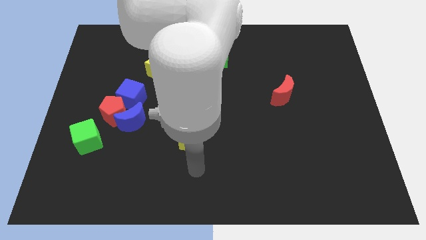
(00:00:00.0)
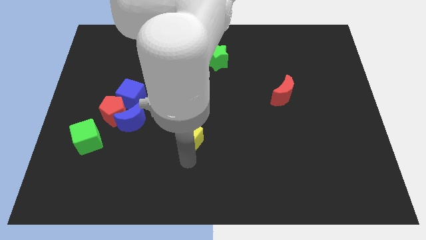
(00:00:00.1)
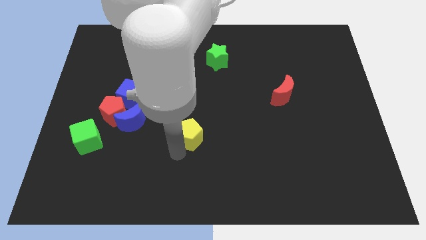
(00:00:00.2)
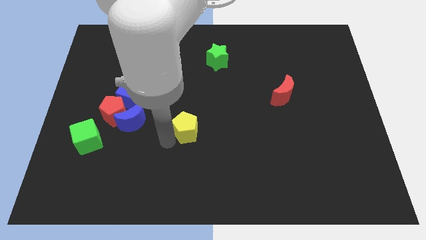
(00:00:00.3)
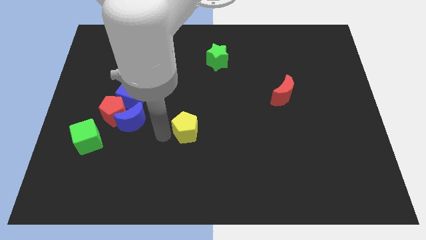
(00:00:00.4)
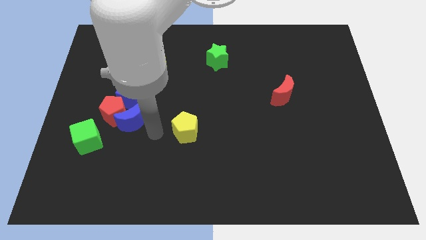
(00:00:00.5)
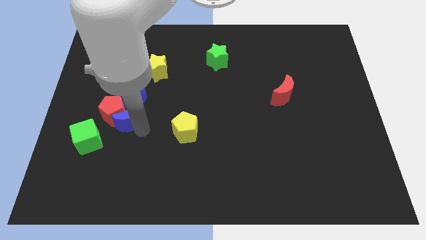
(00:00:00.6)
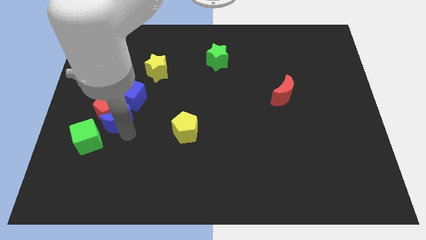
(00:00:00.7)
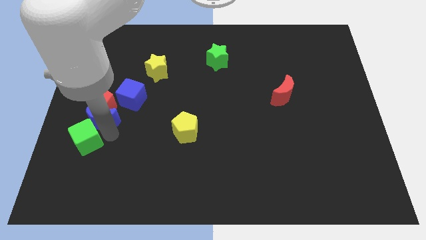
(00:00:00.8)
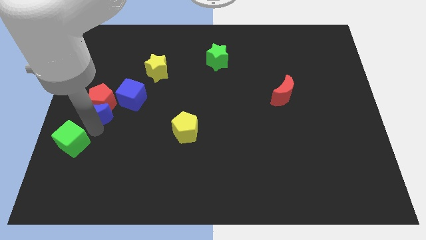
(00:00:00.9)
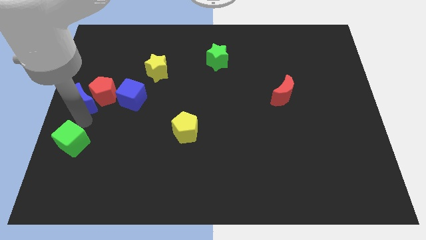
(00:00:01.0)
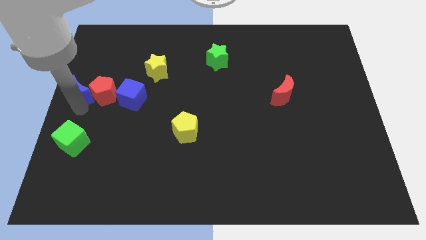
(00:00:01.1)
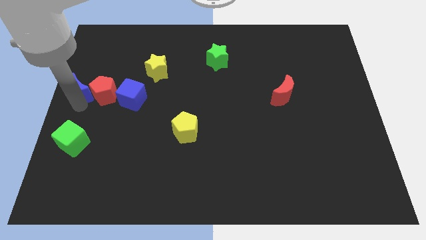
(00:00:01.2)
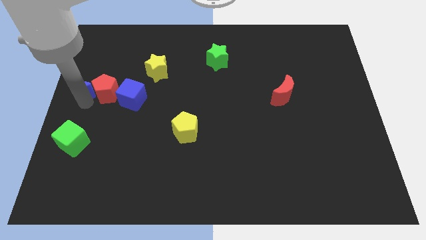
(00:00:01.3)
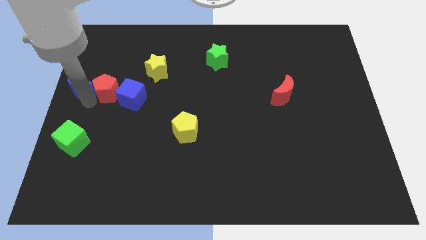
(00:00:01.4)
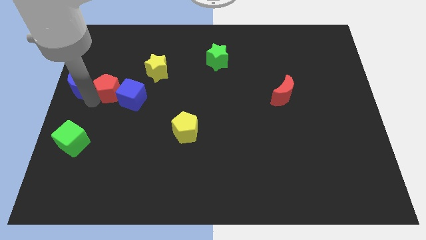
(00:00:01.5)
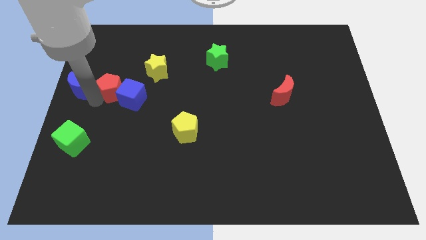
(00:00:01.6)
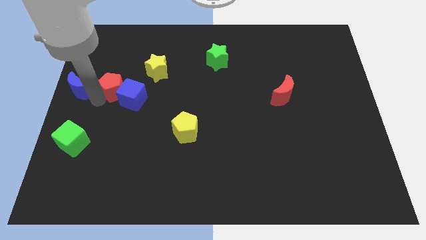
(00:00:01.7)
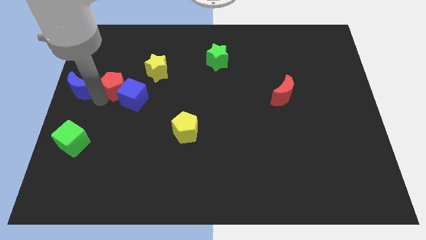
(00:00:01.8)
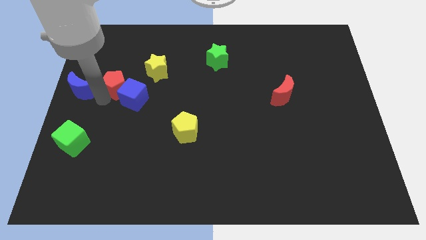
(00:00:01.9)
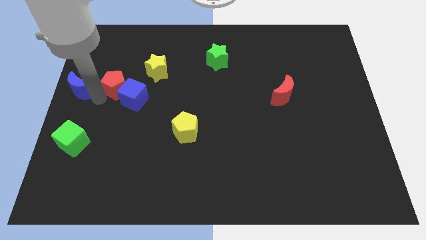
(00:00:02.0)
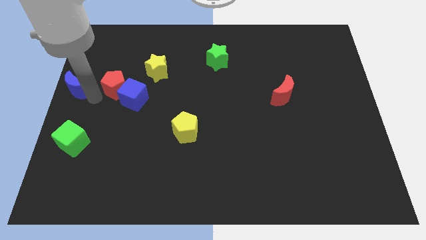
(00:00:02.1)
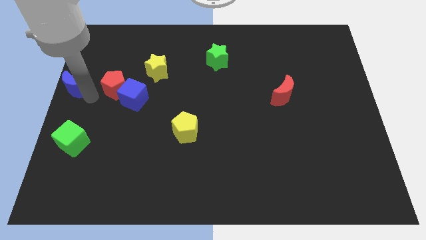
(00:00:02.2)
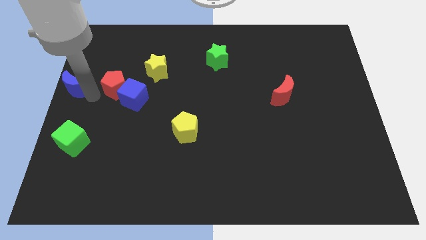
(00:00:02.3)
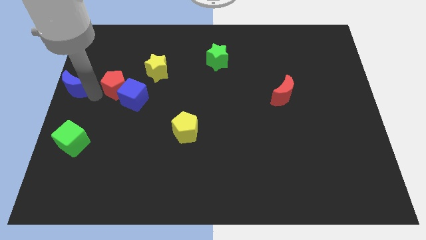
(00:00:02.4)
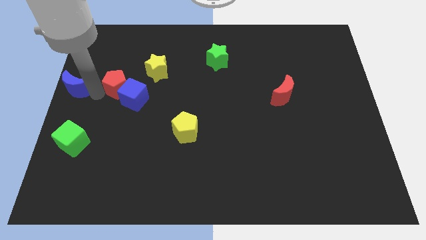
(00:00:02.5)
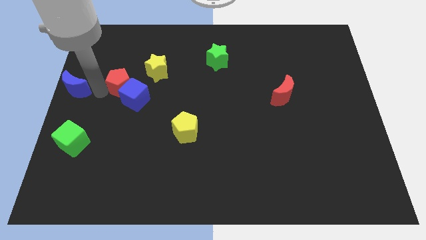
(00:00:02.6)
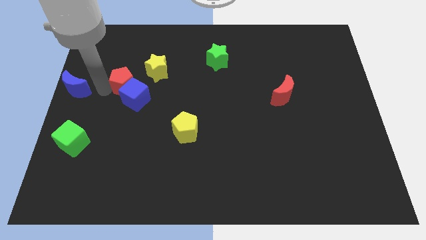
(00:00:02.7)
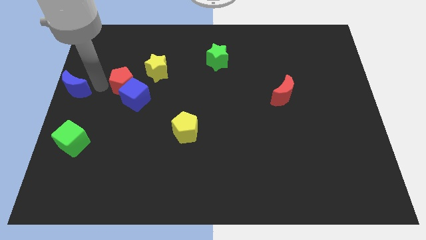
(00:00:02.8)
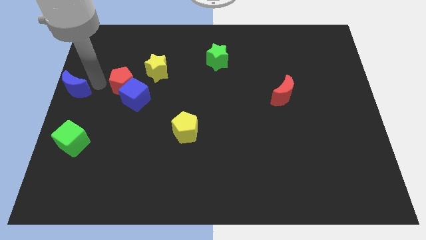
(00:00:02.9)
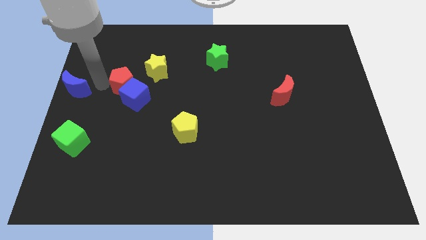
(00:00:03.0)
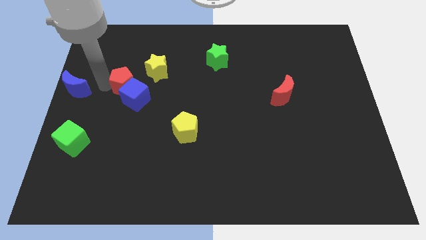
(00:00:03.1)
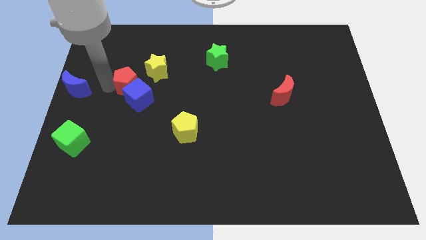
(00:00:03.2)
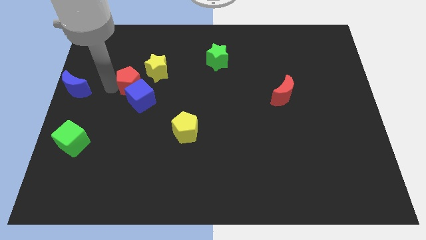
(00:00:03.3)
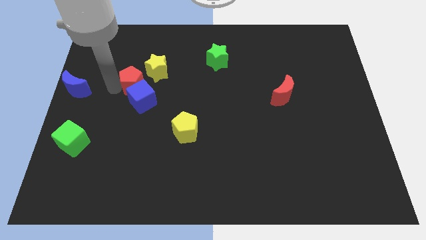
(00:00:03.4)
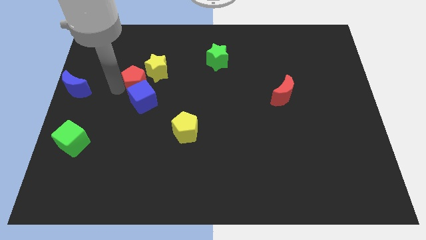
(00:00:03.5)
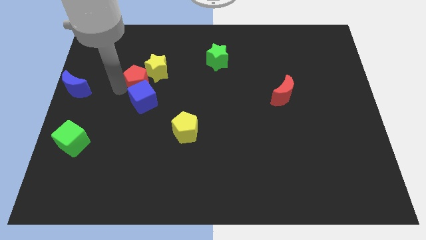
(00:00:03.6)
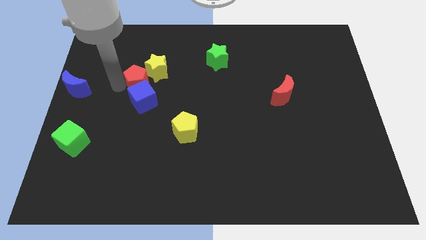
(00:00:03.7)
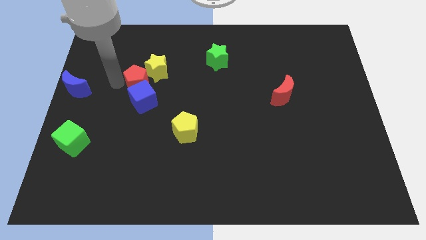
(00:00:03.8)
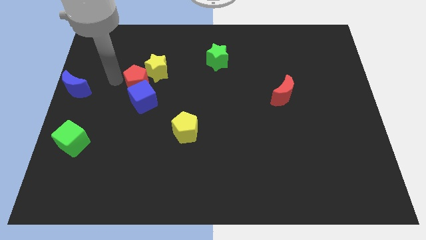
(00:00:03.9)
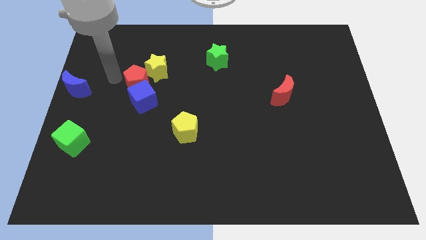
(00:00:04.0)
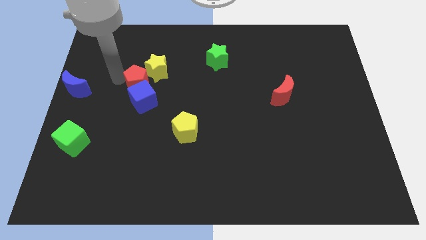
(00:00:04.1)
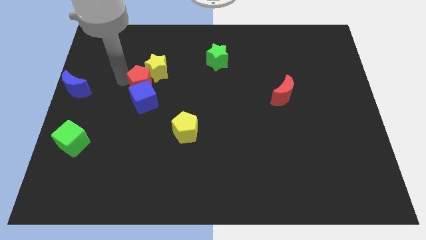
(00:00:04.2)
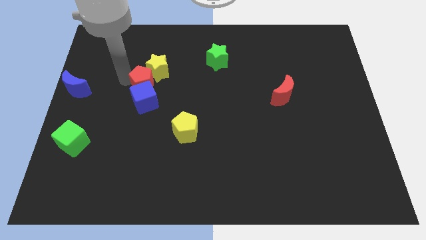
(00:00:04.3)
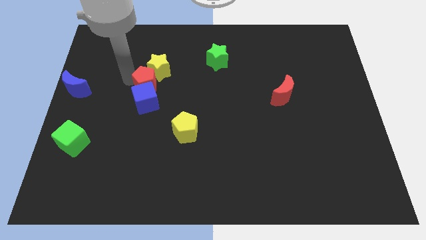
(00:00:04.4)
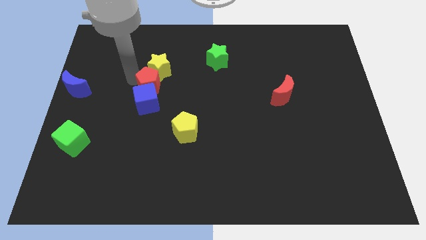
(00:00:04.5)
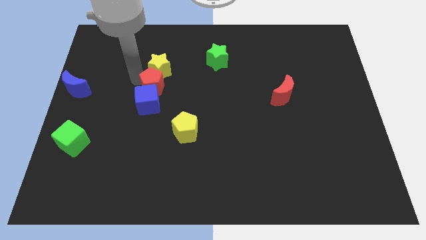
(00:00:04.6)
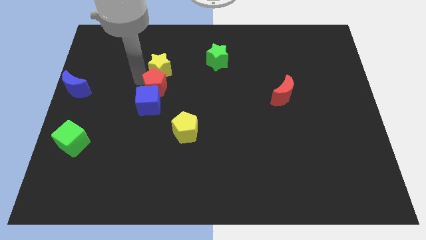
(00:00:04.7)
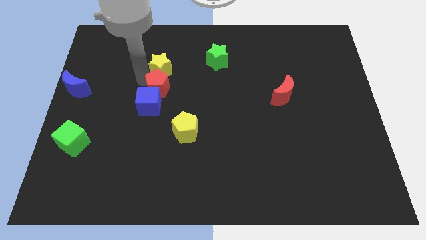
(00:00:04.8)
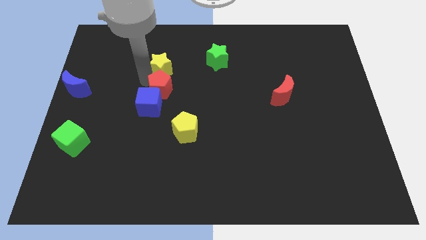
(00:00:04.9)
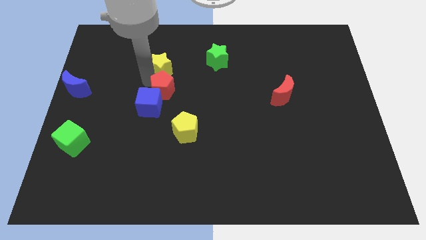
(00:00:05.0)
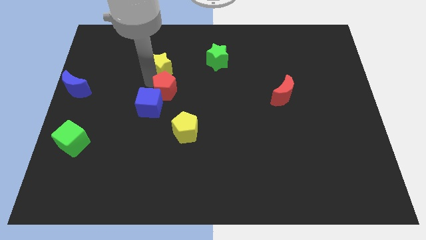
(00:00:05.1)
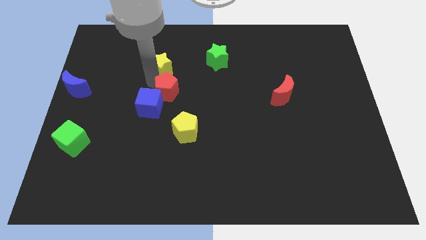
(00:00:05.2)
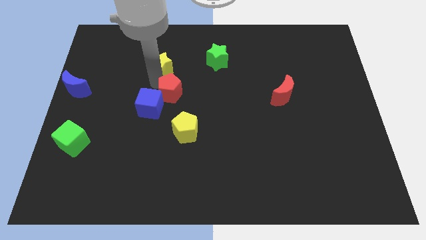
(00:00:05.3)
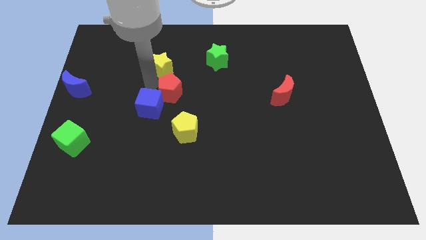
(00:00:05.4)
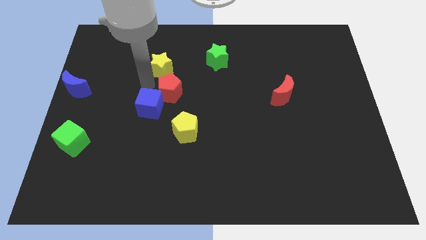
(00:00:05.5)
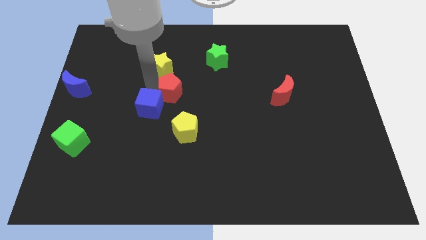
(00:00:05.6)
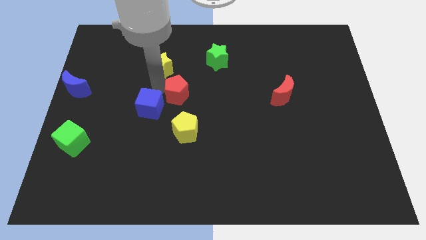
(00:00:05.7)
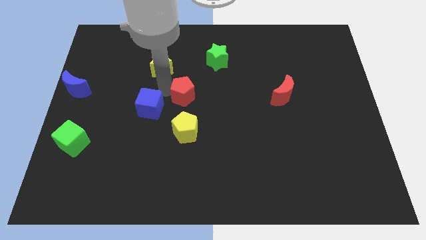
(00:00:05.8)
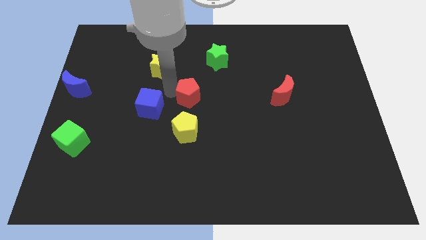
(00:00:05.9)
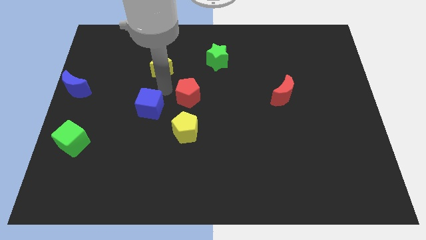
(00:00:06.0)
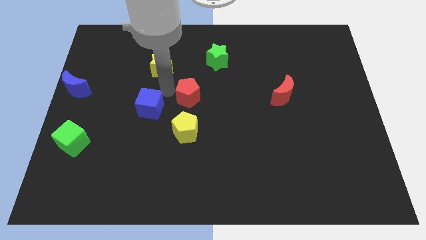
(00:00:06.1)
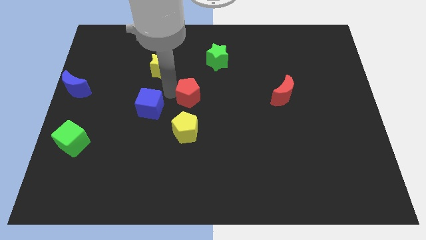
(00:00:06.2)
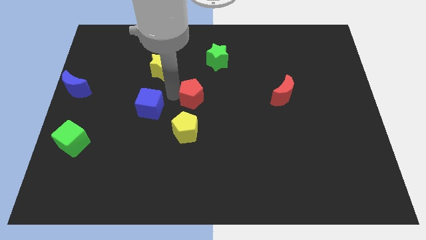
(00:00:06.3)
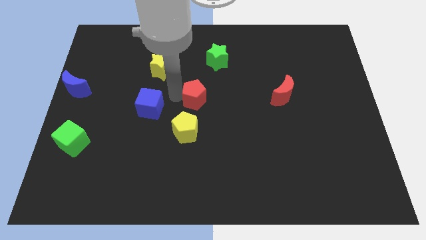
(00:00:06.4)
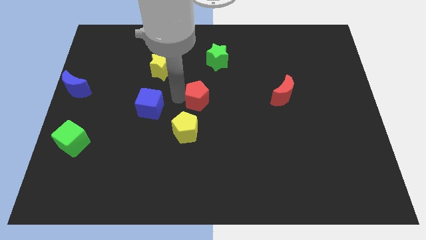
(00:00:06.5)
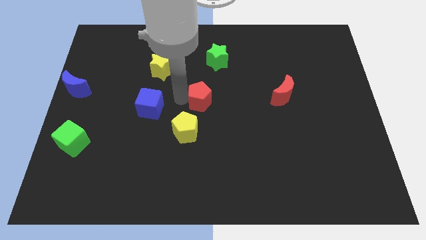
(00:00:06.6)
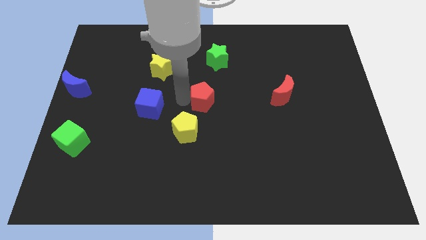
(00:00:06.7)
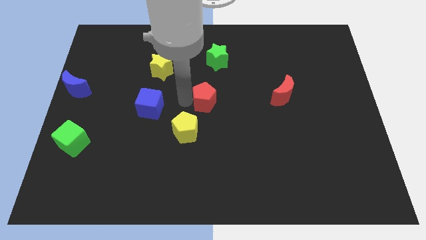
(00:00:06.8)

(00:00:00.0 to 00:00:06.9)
push the red pentagon right

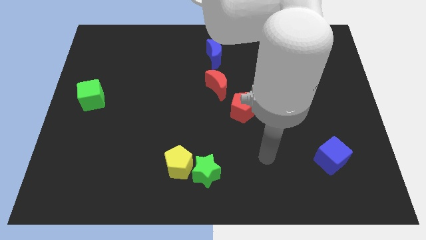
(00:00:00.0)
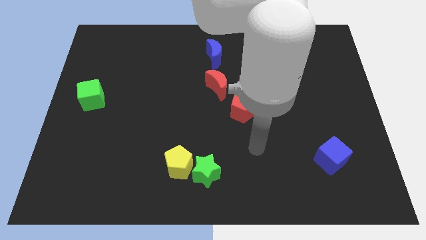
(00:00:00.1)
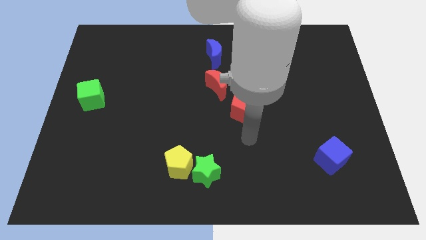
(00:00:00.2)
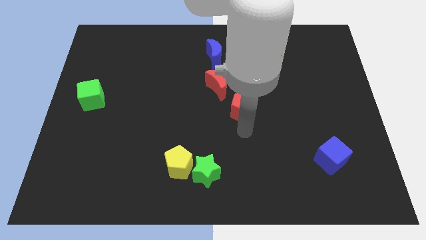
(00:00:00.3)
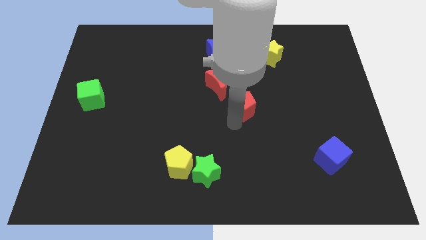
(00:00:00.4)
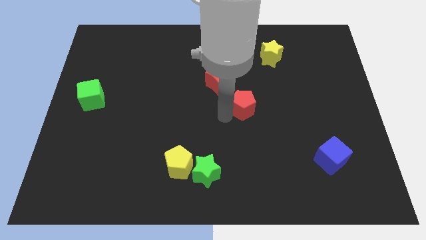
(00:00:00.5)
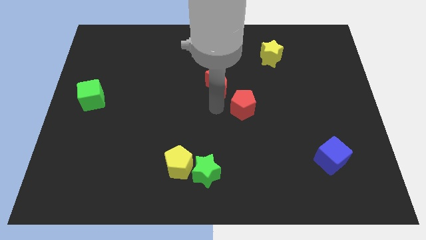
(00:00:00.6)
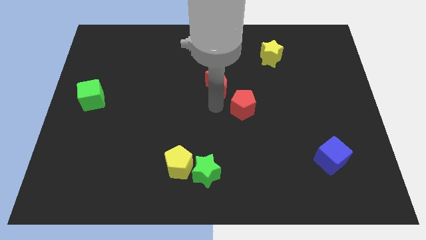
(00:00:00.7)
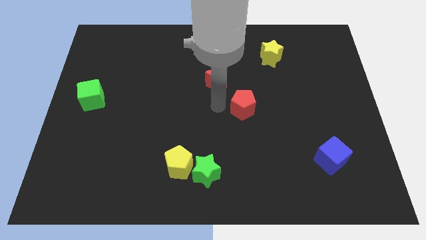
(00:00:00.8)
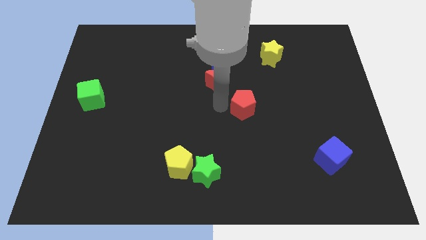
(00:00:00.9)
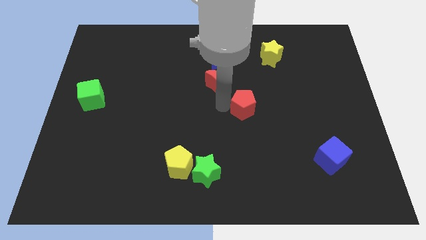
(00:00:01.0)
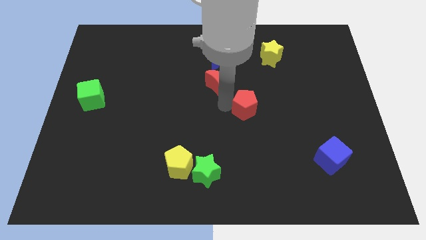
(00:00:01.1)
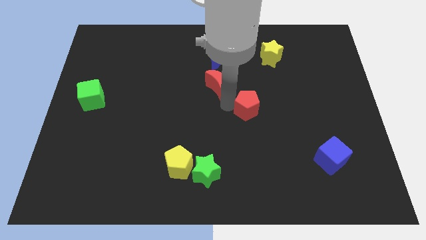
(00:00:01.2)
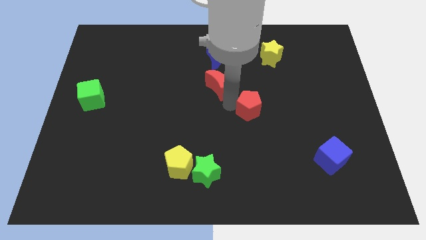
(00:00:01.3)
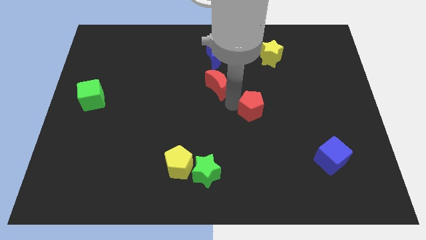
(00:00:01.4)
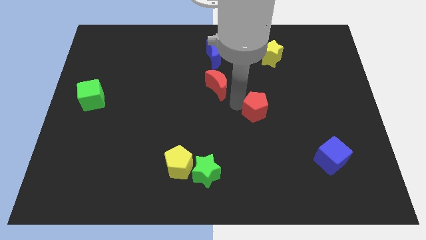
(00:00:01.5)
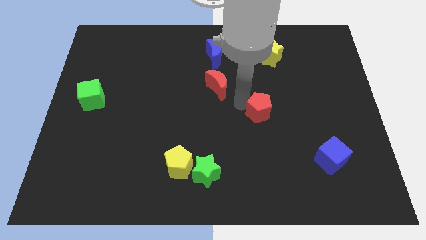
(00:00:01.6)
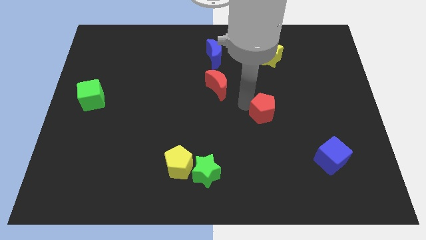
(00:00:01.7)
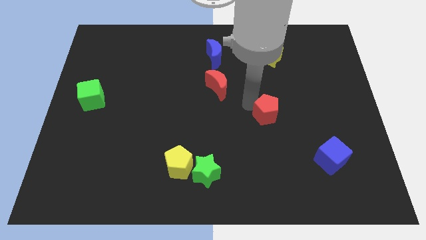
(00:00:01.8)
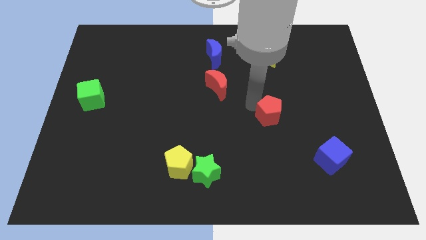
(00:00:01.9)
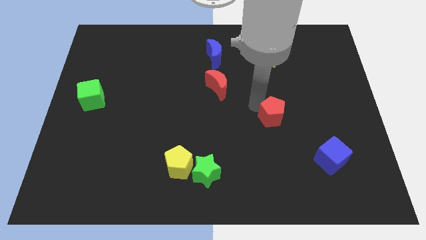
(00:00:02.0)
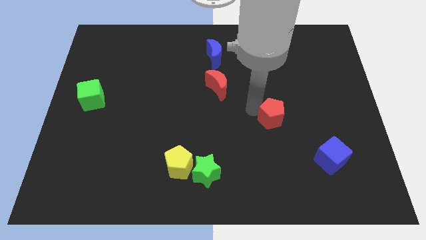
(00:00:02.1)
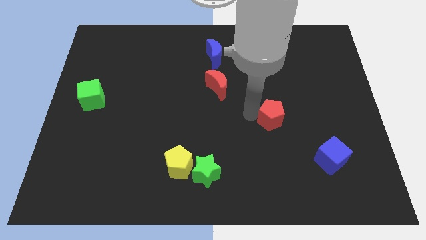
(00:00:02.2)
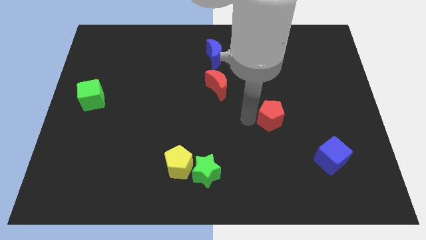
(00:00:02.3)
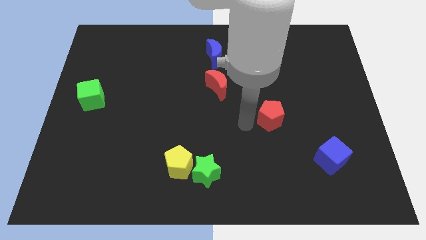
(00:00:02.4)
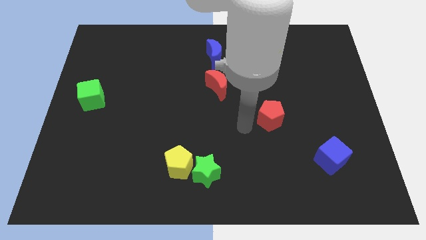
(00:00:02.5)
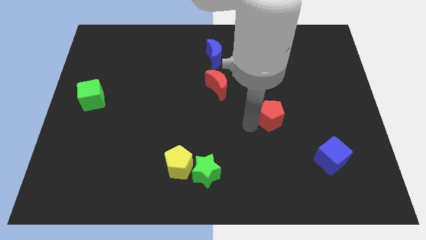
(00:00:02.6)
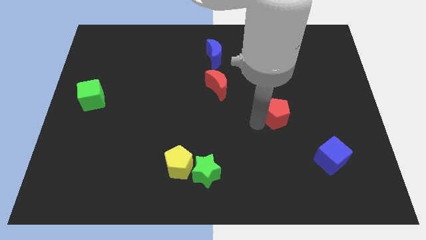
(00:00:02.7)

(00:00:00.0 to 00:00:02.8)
move the red pentagon right a bit
